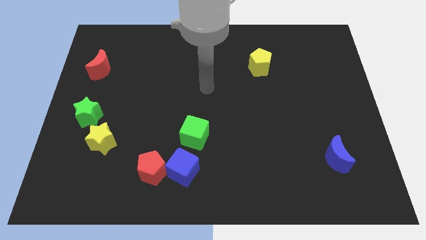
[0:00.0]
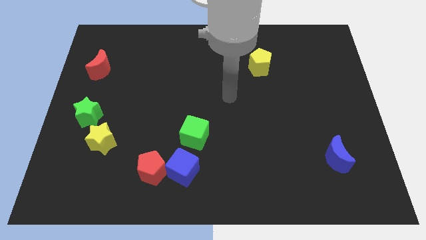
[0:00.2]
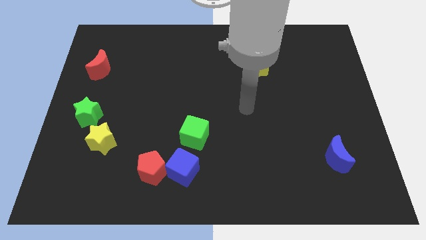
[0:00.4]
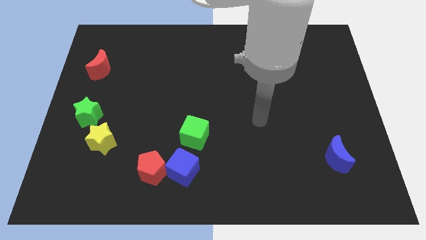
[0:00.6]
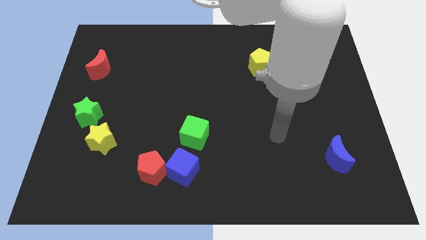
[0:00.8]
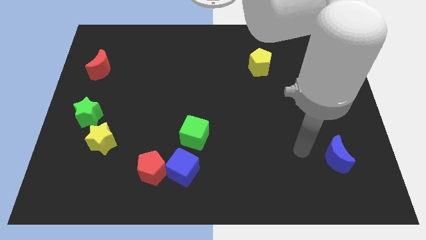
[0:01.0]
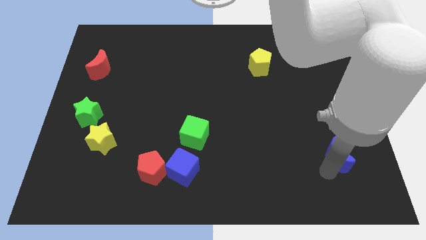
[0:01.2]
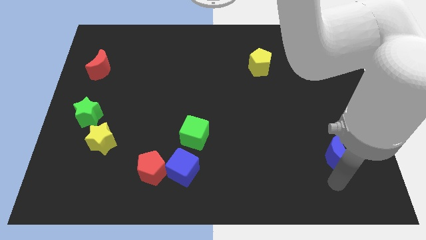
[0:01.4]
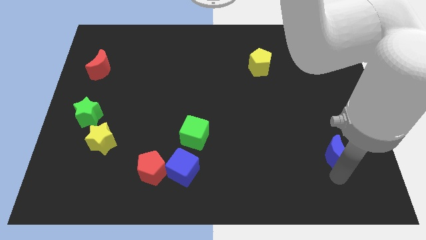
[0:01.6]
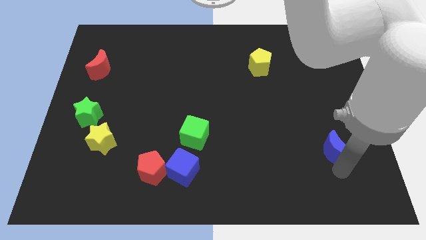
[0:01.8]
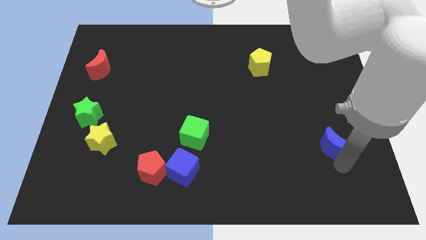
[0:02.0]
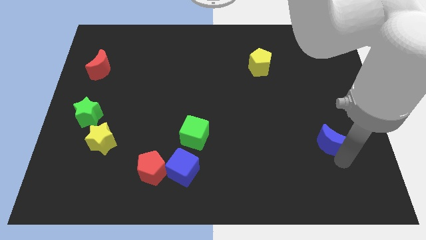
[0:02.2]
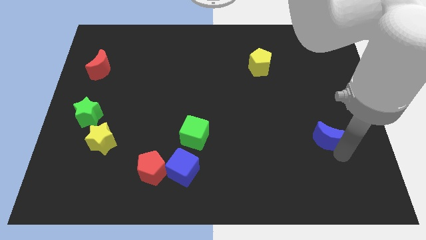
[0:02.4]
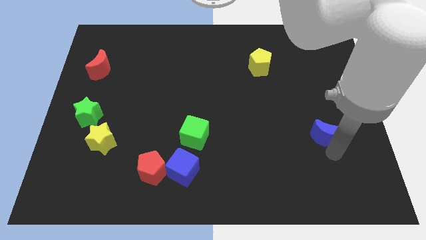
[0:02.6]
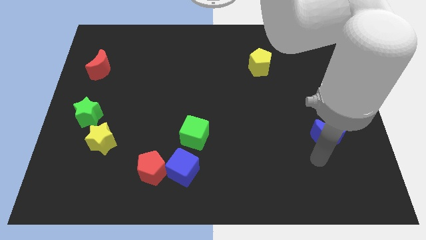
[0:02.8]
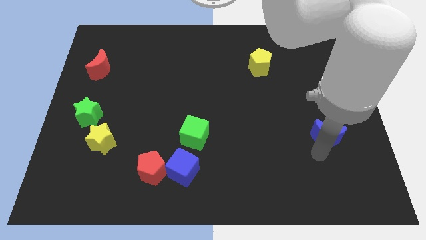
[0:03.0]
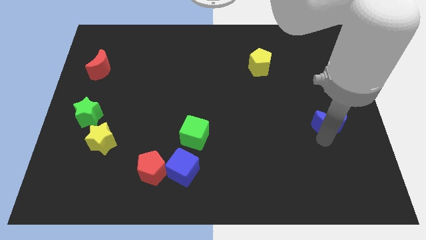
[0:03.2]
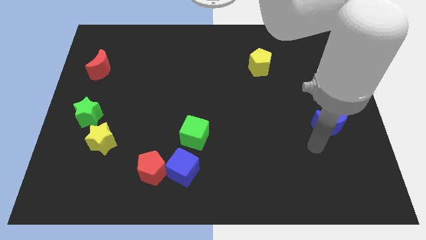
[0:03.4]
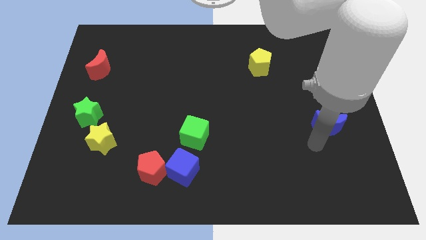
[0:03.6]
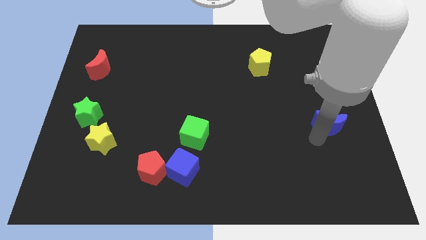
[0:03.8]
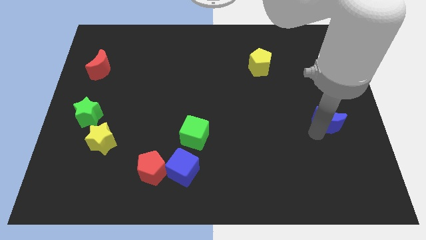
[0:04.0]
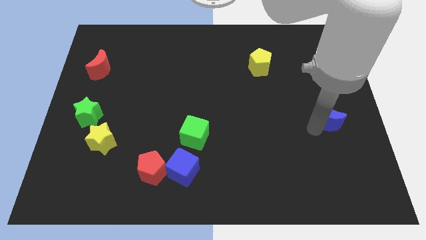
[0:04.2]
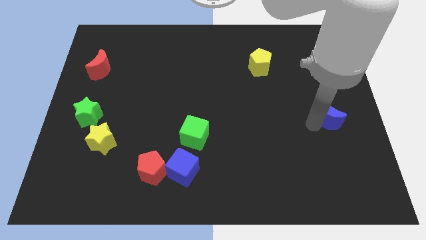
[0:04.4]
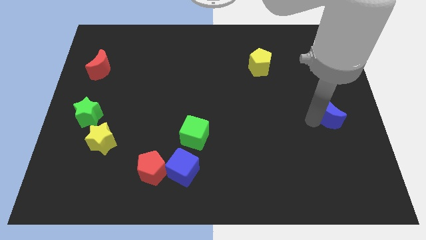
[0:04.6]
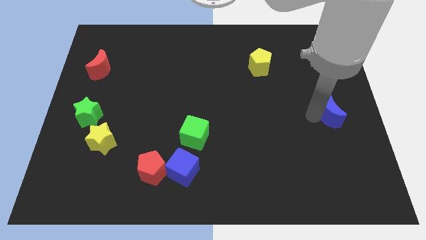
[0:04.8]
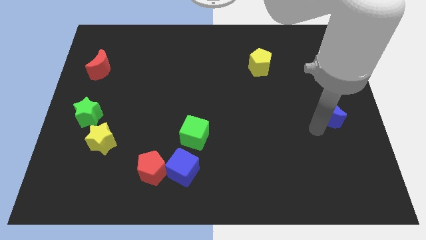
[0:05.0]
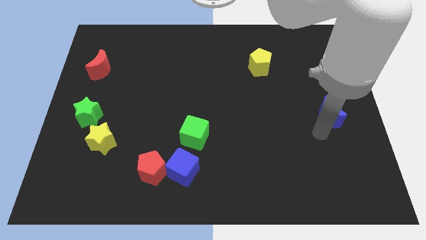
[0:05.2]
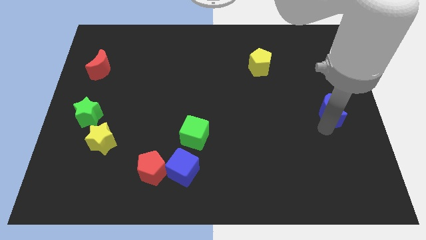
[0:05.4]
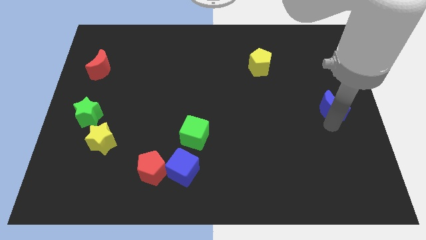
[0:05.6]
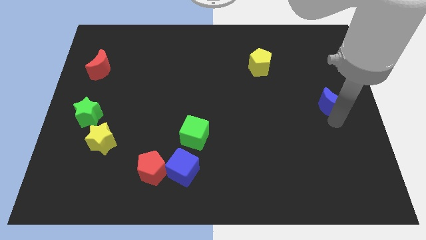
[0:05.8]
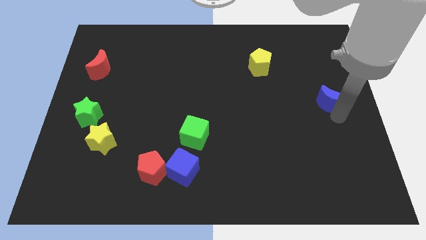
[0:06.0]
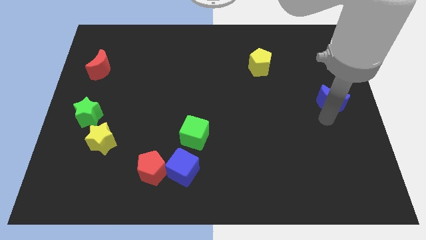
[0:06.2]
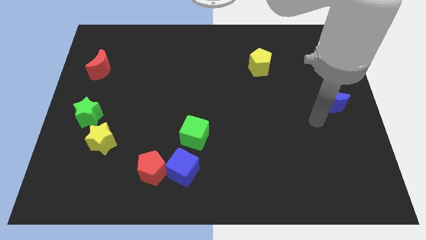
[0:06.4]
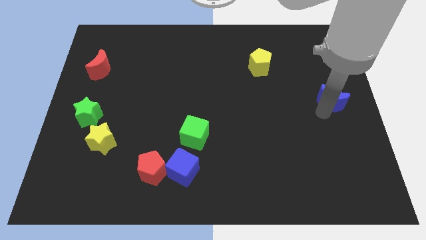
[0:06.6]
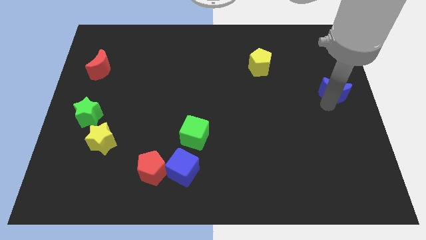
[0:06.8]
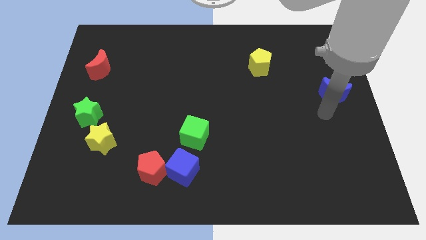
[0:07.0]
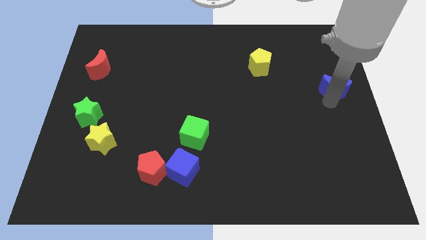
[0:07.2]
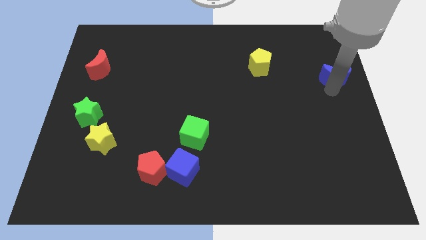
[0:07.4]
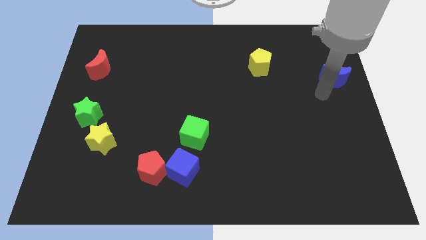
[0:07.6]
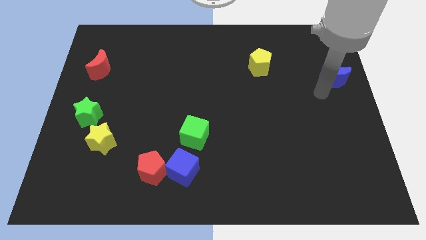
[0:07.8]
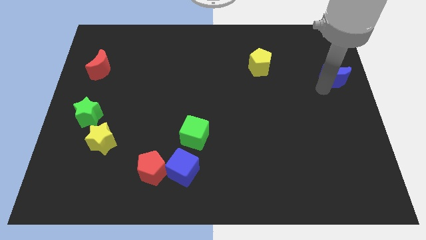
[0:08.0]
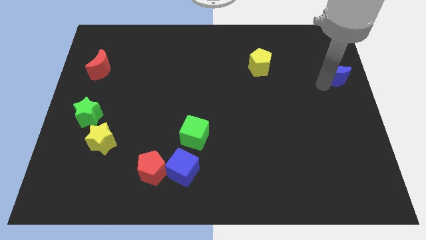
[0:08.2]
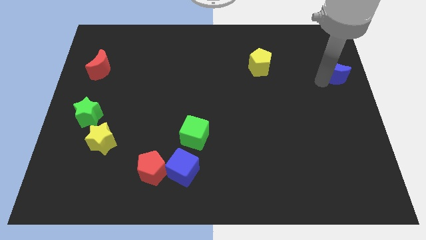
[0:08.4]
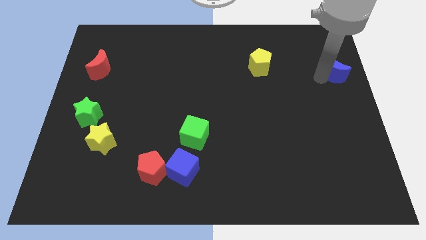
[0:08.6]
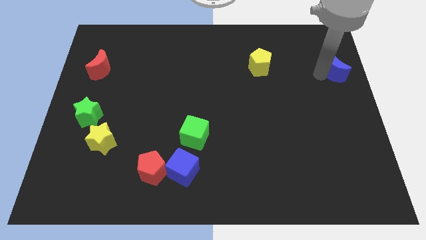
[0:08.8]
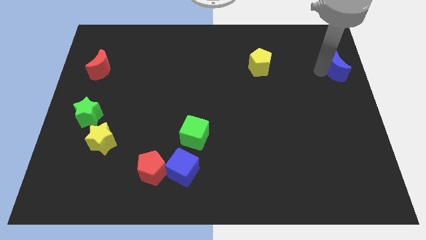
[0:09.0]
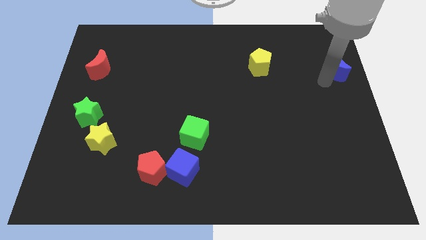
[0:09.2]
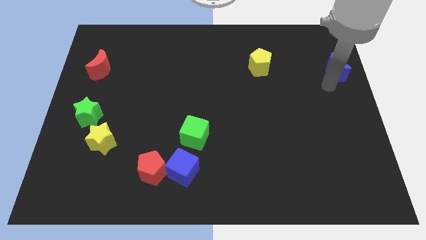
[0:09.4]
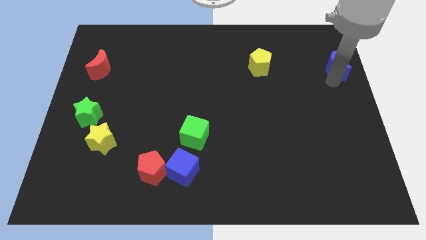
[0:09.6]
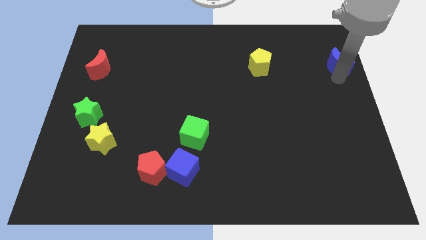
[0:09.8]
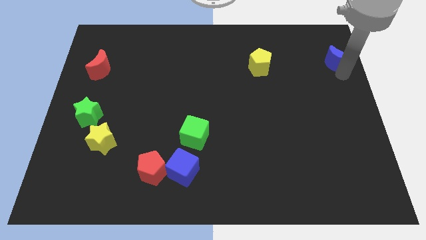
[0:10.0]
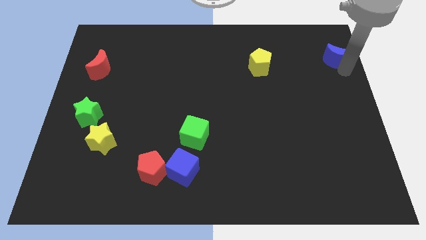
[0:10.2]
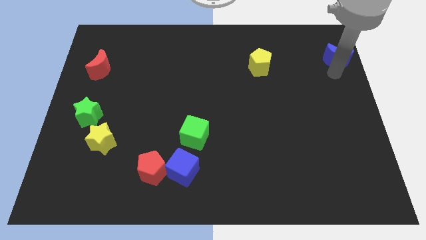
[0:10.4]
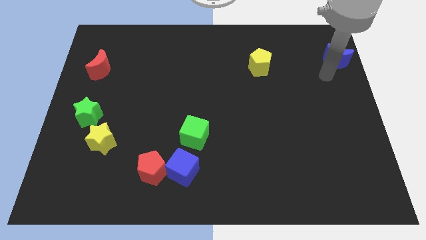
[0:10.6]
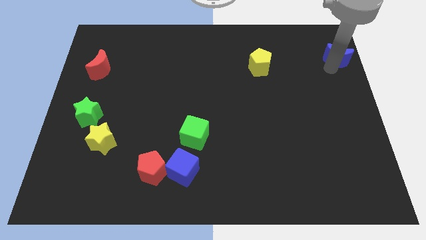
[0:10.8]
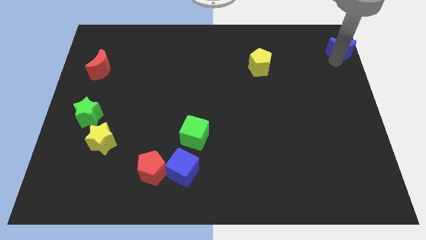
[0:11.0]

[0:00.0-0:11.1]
move the blue moon to the upper right corner
